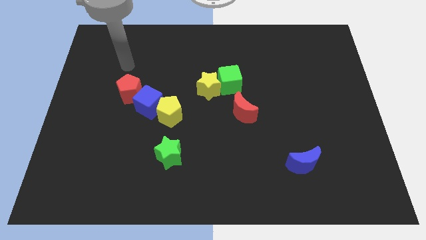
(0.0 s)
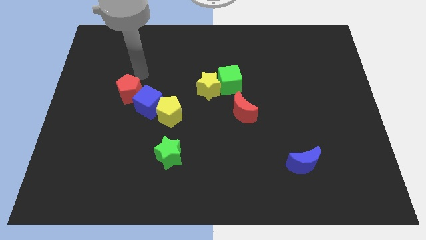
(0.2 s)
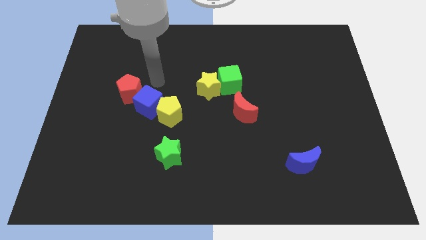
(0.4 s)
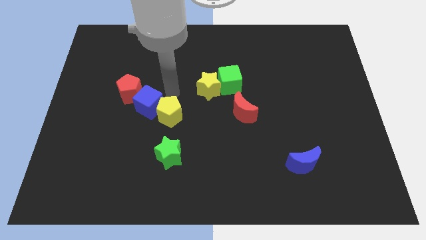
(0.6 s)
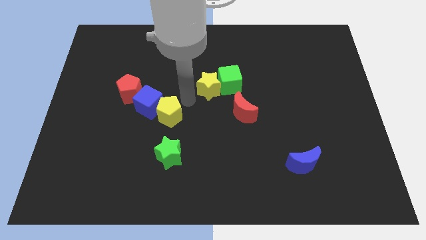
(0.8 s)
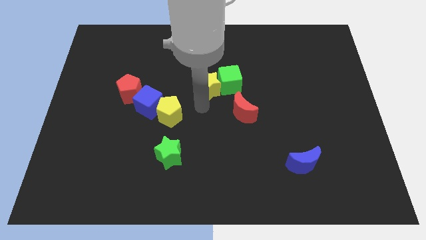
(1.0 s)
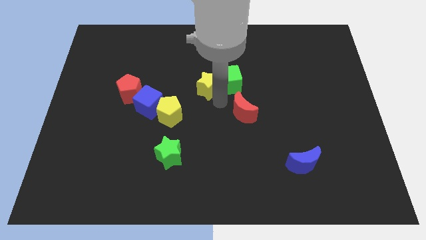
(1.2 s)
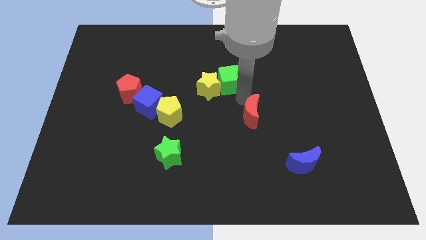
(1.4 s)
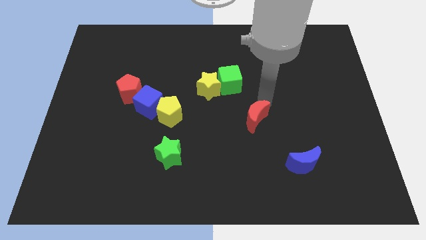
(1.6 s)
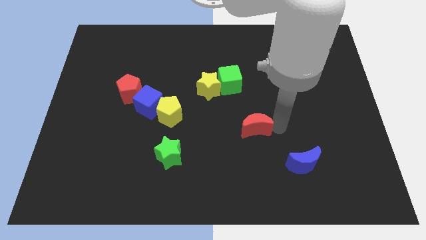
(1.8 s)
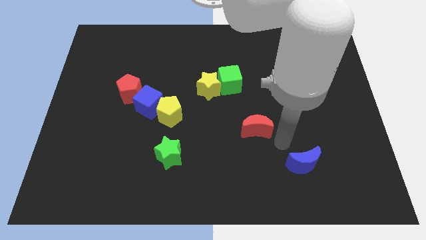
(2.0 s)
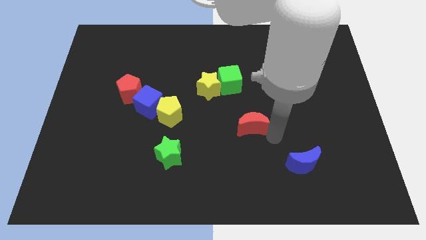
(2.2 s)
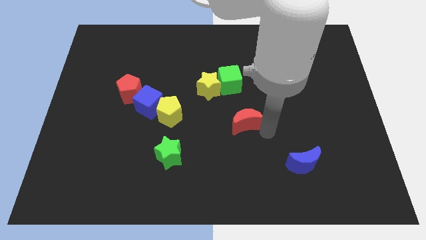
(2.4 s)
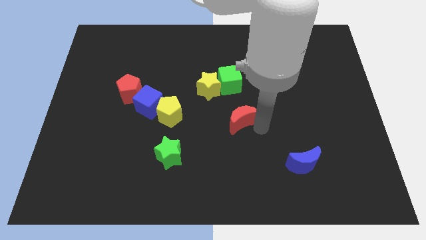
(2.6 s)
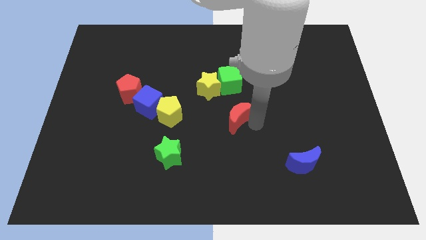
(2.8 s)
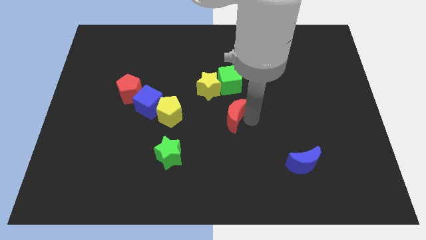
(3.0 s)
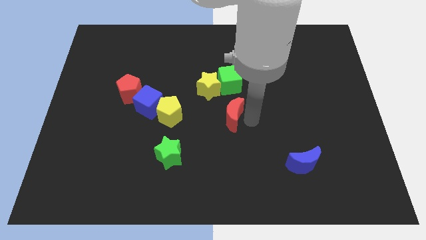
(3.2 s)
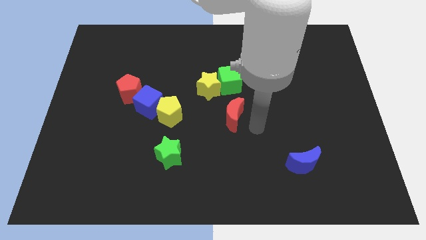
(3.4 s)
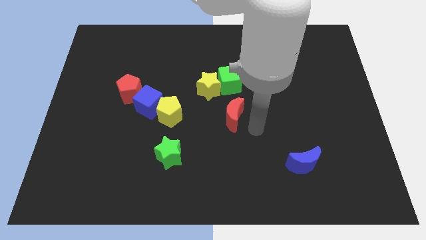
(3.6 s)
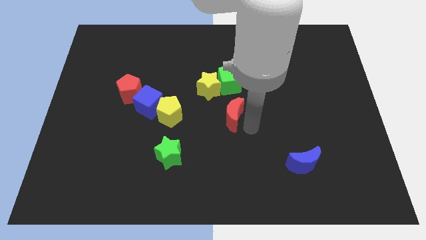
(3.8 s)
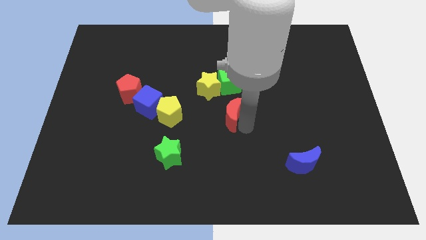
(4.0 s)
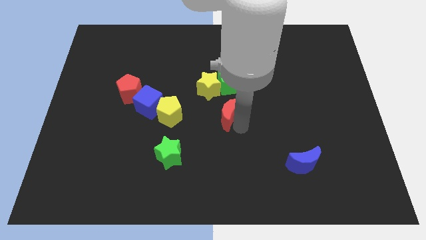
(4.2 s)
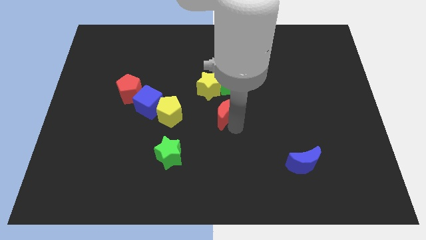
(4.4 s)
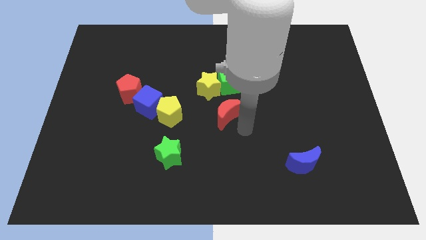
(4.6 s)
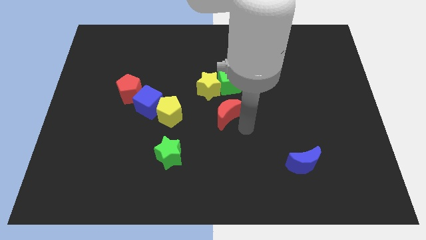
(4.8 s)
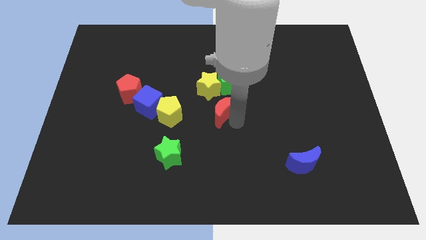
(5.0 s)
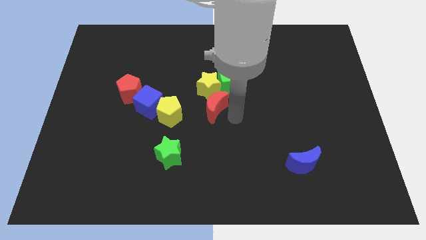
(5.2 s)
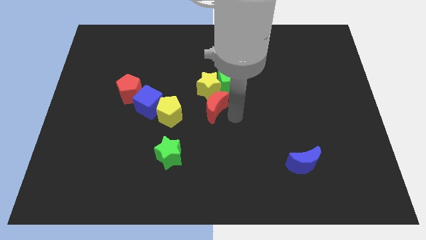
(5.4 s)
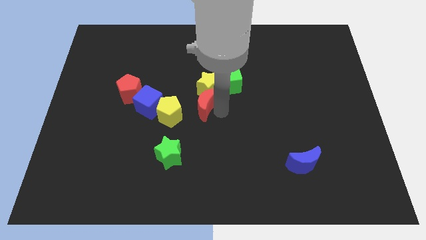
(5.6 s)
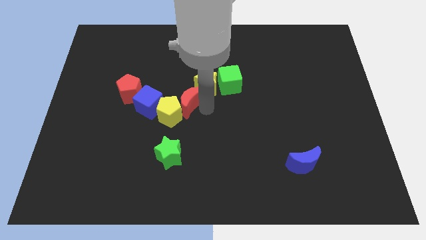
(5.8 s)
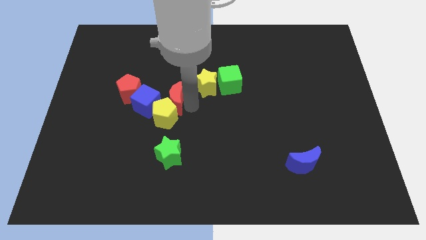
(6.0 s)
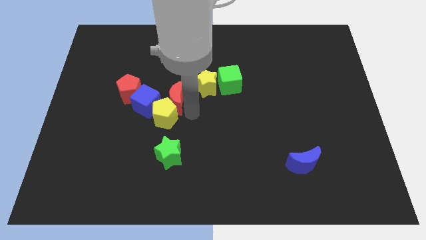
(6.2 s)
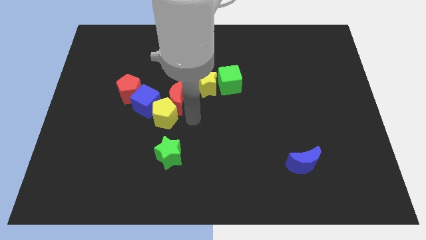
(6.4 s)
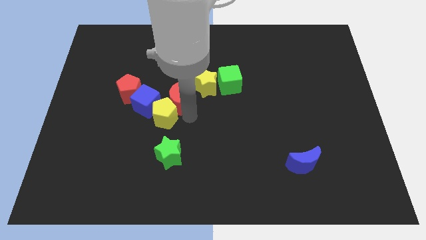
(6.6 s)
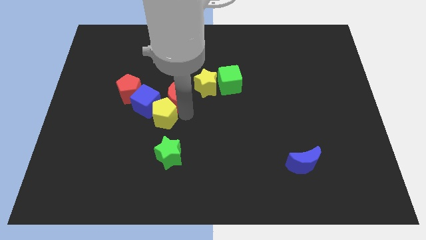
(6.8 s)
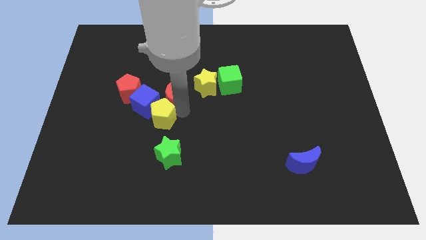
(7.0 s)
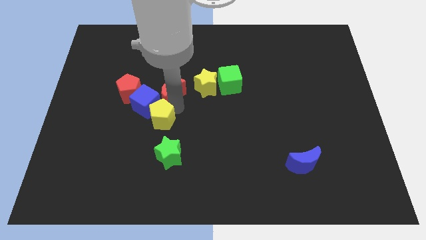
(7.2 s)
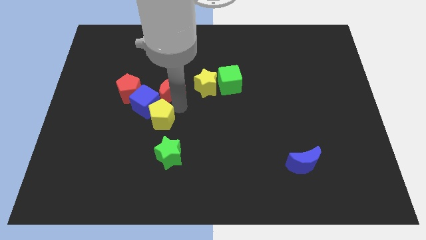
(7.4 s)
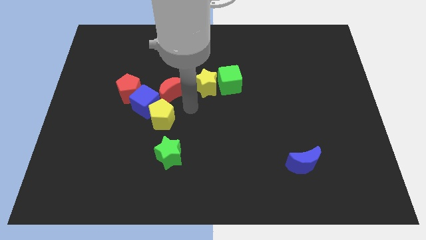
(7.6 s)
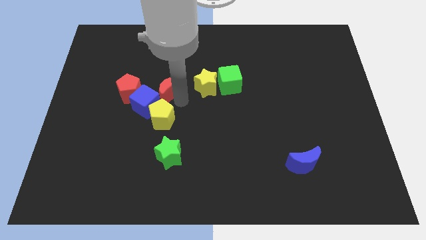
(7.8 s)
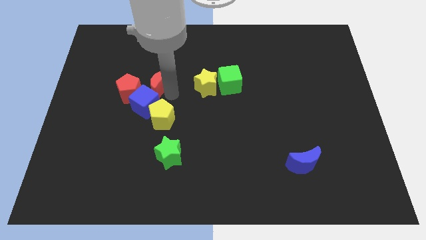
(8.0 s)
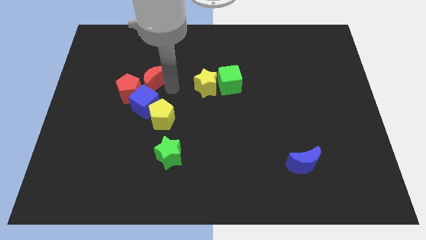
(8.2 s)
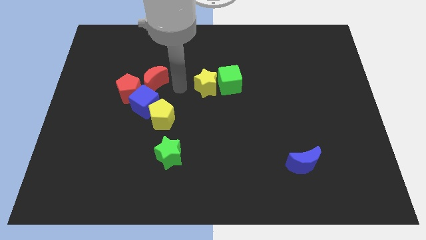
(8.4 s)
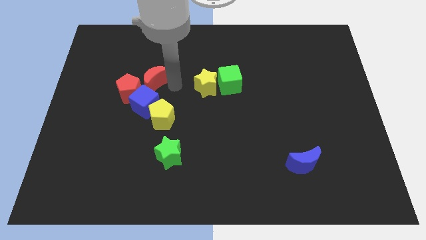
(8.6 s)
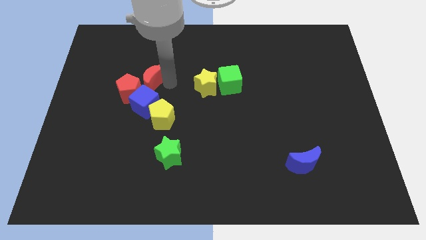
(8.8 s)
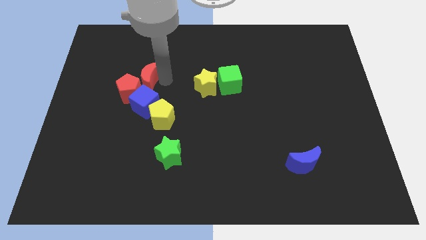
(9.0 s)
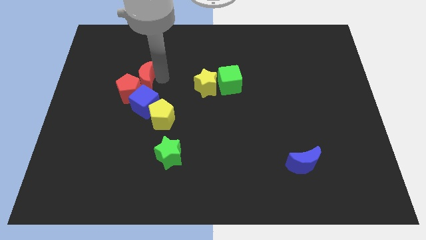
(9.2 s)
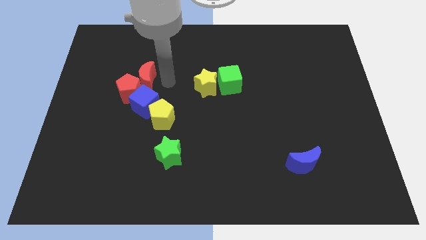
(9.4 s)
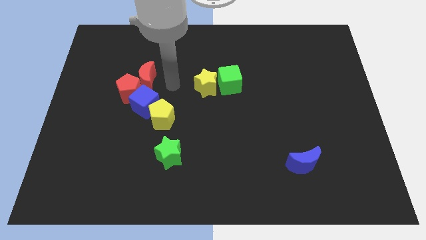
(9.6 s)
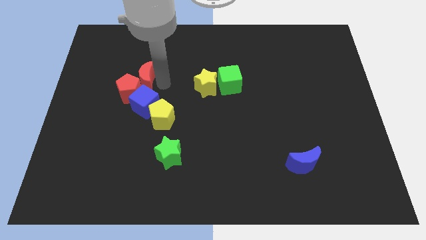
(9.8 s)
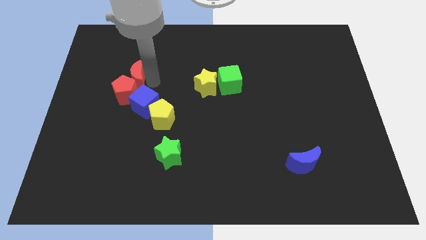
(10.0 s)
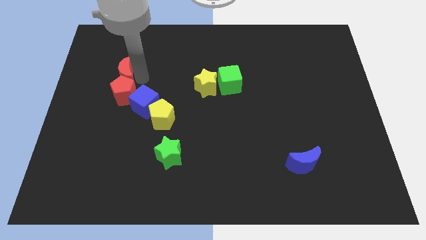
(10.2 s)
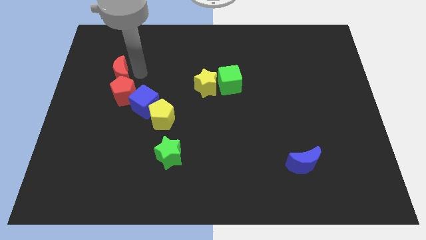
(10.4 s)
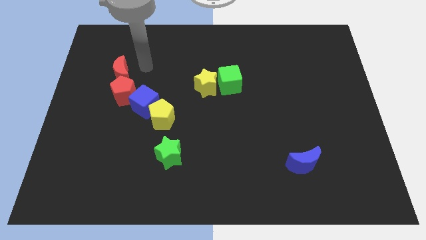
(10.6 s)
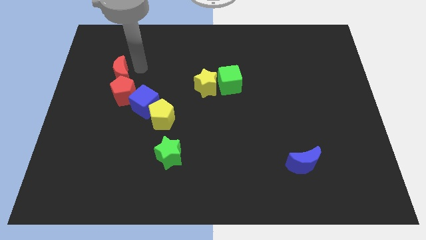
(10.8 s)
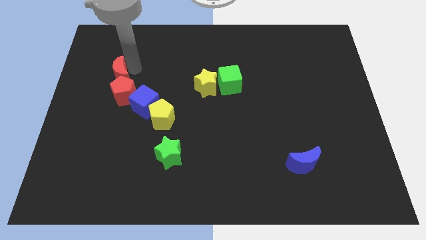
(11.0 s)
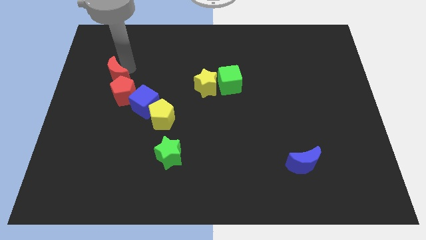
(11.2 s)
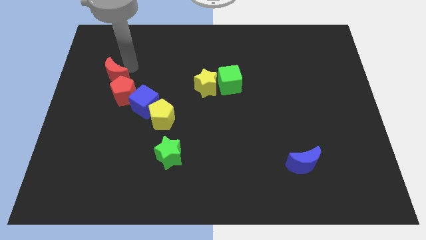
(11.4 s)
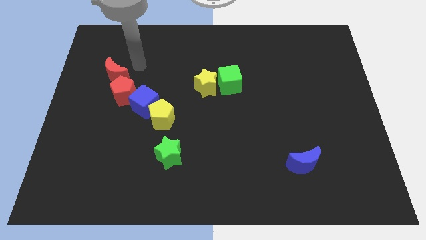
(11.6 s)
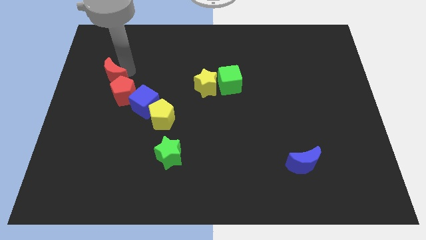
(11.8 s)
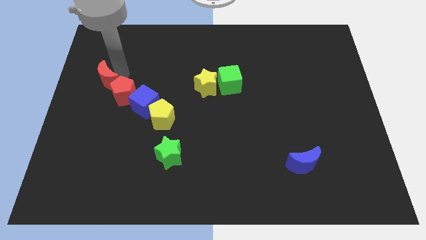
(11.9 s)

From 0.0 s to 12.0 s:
push the red moon to the left side

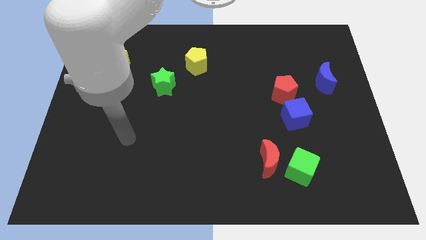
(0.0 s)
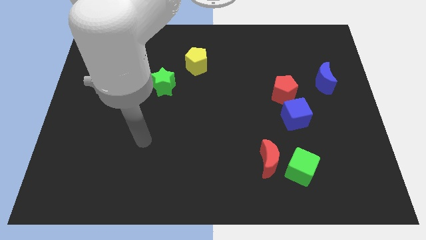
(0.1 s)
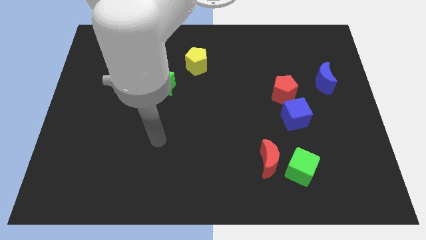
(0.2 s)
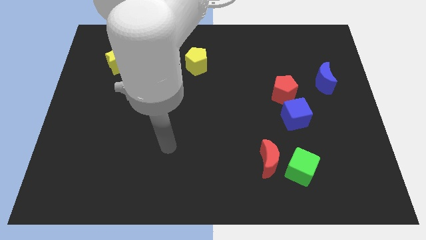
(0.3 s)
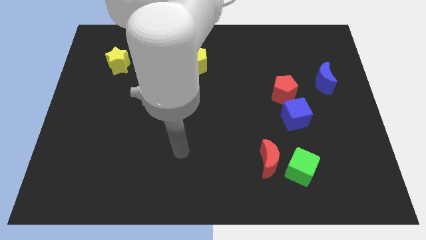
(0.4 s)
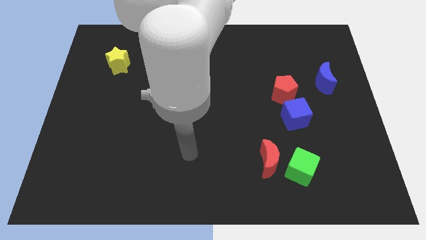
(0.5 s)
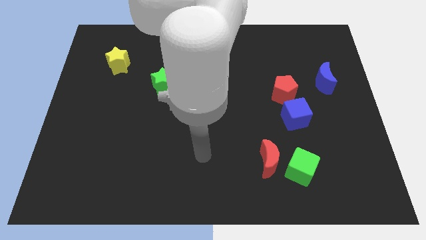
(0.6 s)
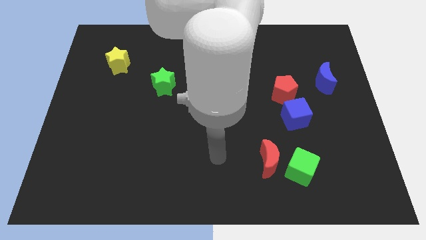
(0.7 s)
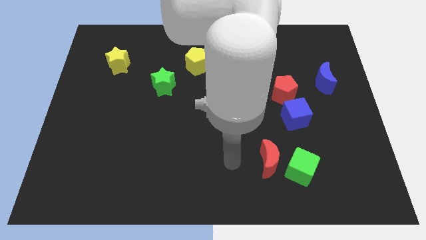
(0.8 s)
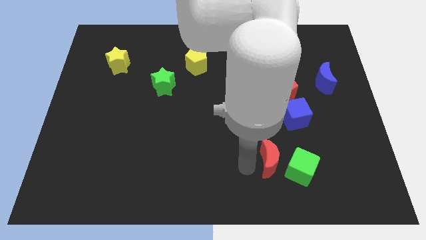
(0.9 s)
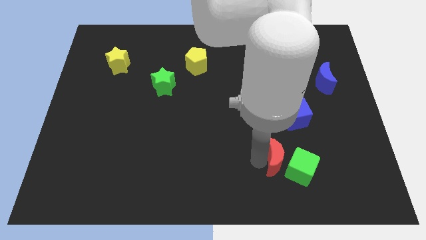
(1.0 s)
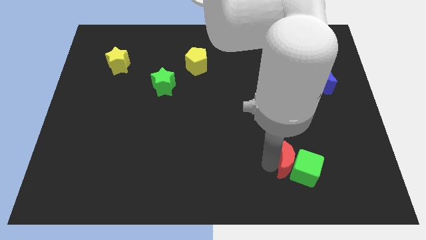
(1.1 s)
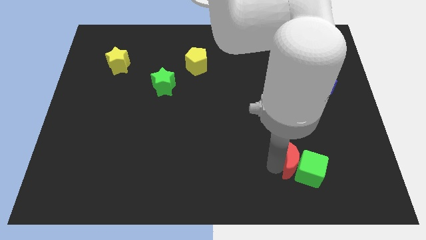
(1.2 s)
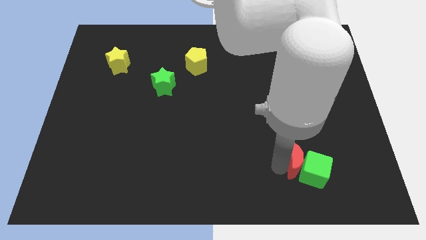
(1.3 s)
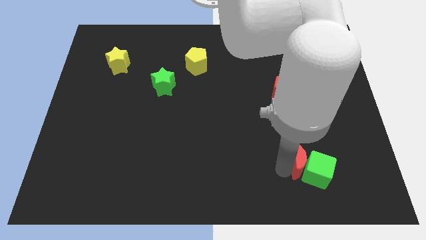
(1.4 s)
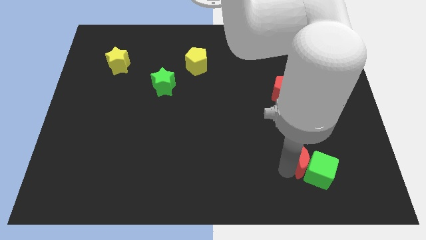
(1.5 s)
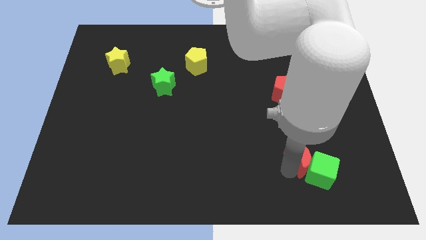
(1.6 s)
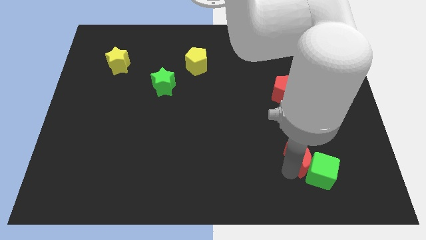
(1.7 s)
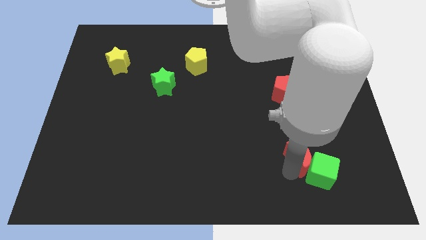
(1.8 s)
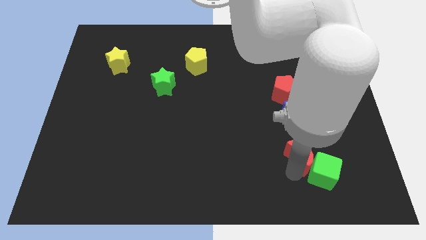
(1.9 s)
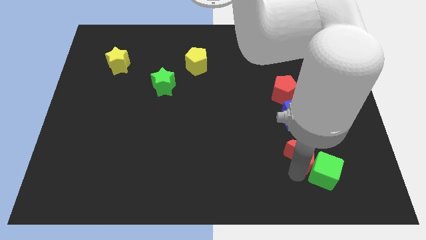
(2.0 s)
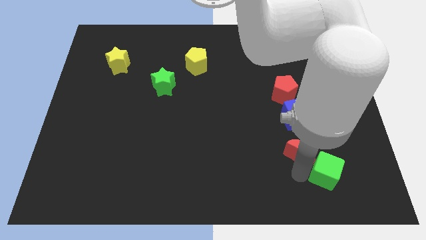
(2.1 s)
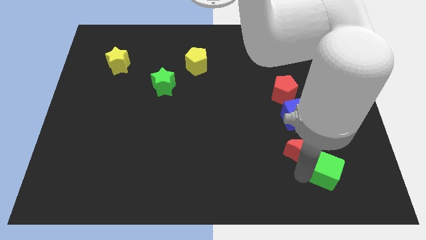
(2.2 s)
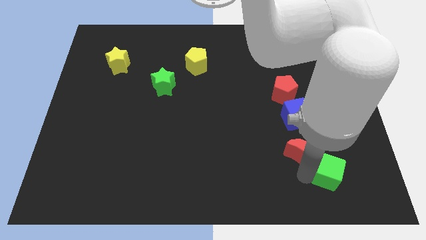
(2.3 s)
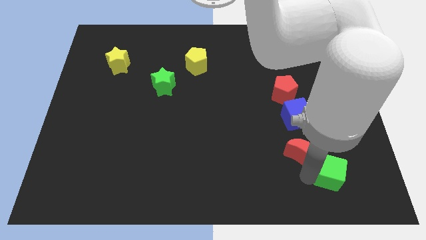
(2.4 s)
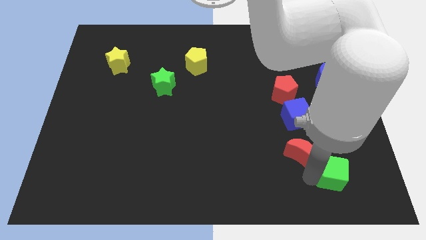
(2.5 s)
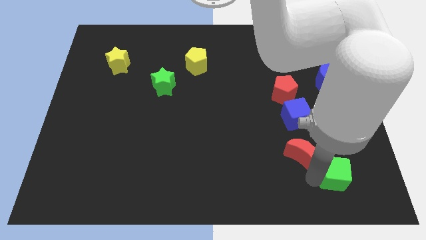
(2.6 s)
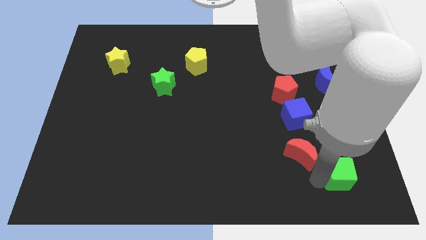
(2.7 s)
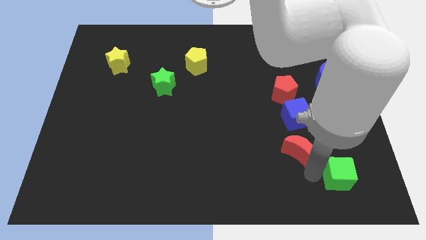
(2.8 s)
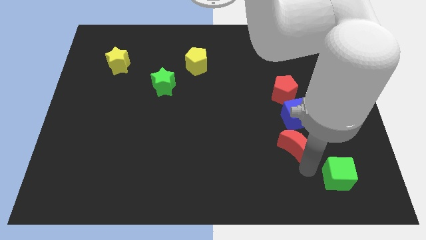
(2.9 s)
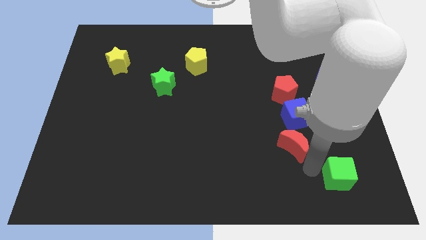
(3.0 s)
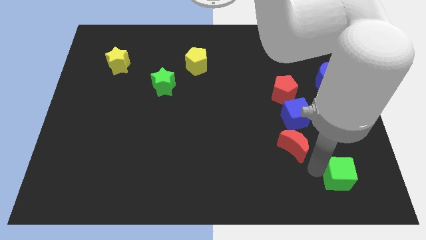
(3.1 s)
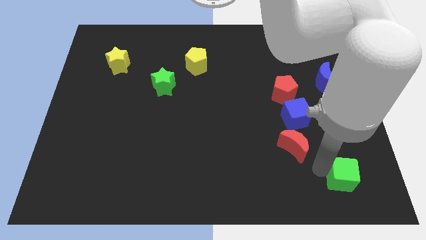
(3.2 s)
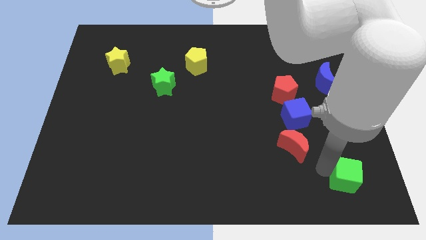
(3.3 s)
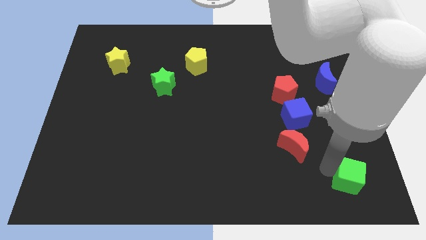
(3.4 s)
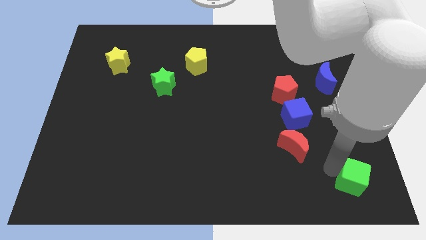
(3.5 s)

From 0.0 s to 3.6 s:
put the green cube to the bottom right corner
